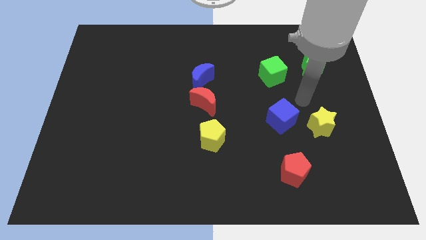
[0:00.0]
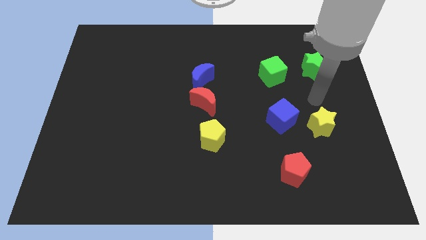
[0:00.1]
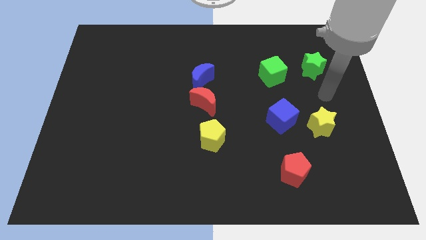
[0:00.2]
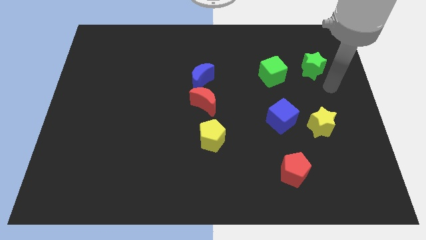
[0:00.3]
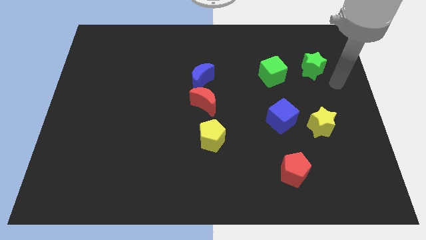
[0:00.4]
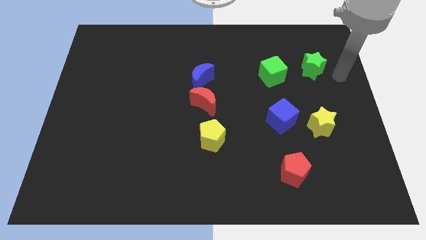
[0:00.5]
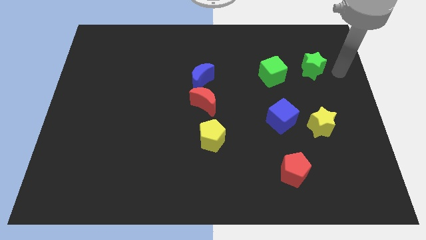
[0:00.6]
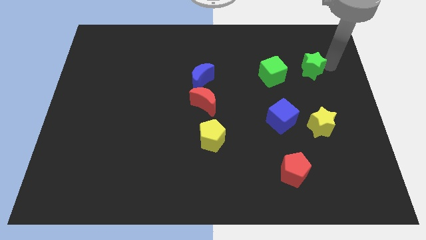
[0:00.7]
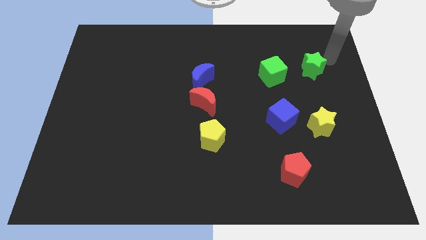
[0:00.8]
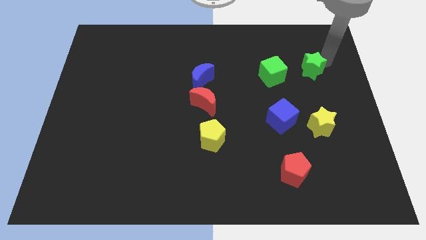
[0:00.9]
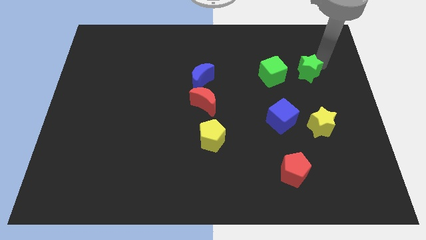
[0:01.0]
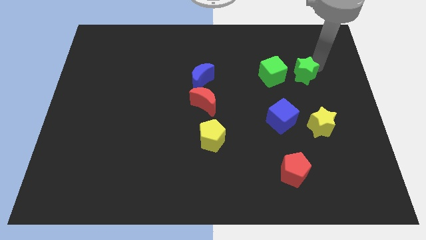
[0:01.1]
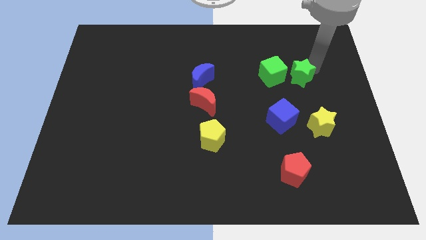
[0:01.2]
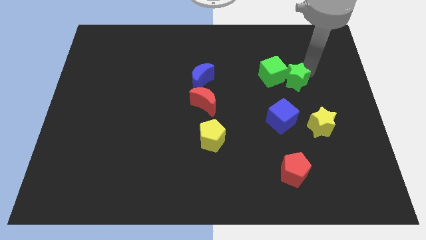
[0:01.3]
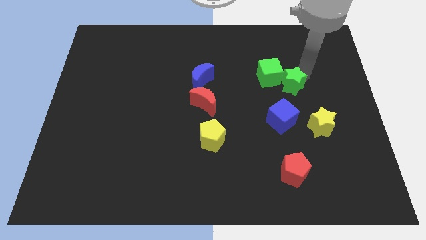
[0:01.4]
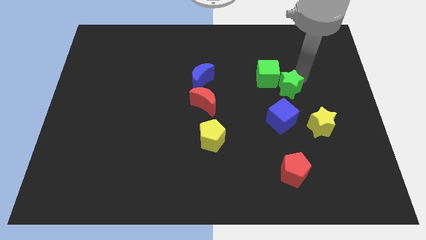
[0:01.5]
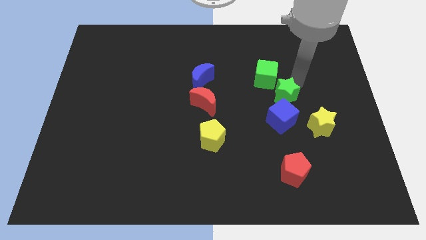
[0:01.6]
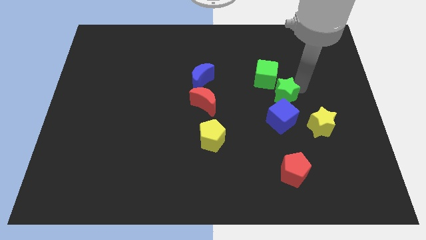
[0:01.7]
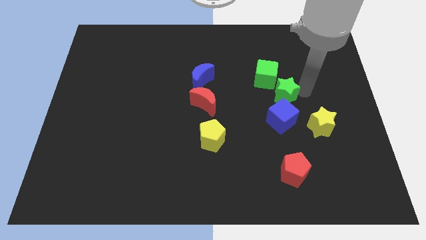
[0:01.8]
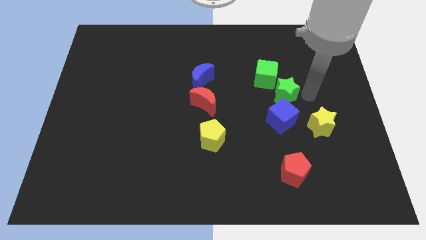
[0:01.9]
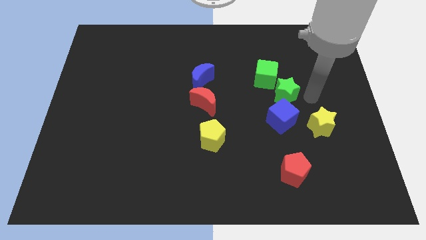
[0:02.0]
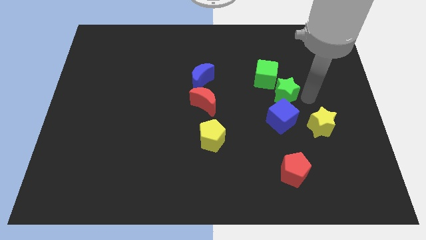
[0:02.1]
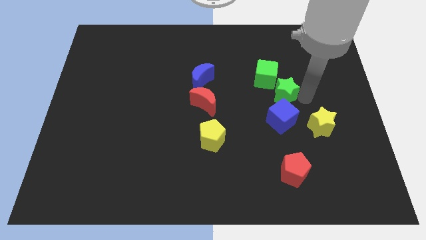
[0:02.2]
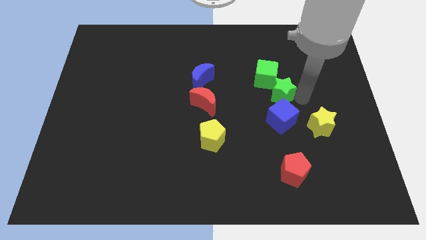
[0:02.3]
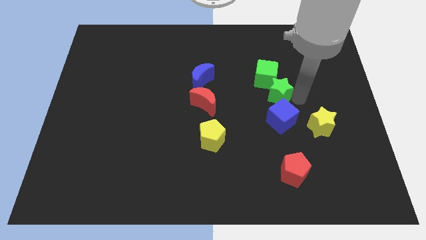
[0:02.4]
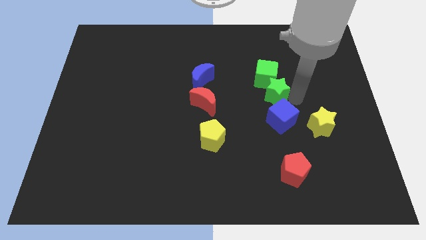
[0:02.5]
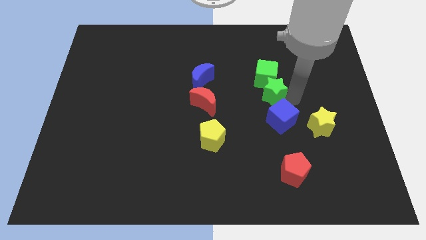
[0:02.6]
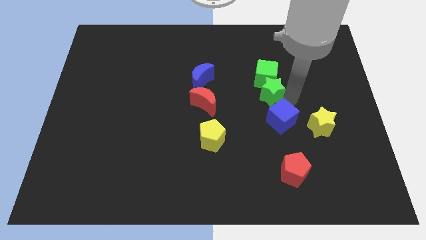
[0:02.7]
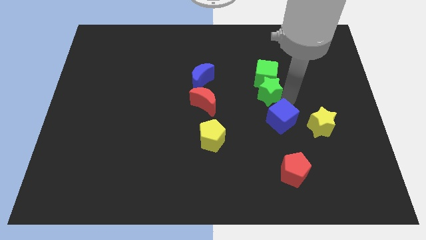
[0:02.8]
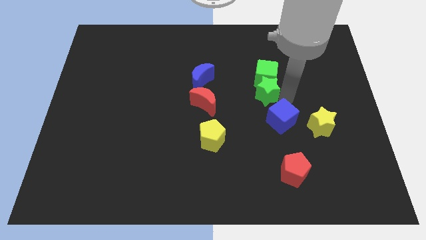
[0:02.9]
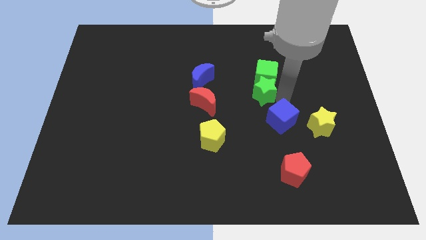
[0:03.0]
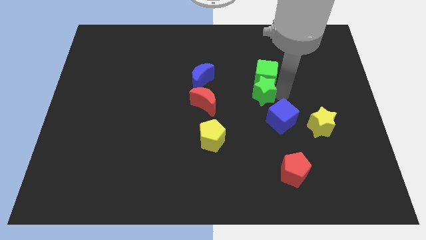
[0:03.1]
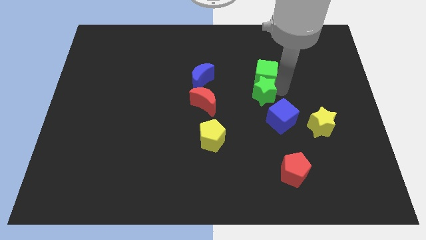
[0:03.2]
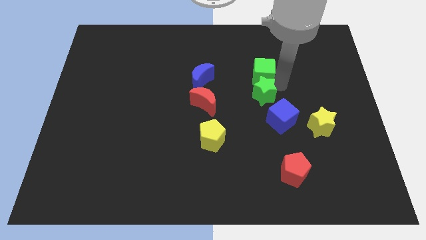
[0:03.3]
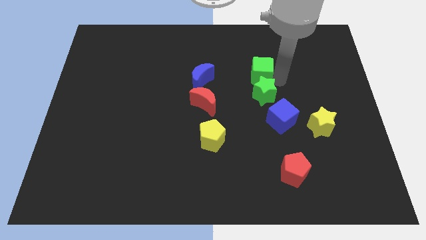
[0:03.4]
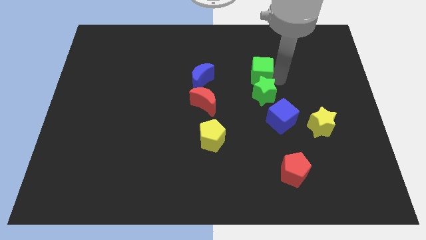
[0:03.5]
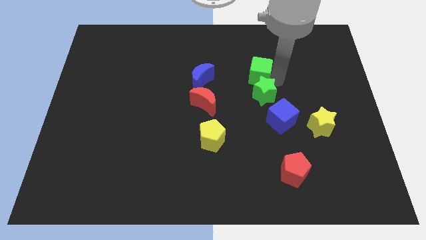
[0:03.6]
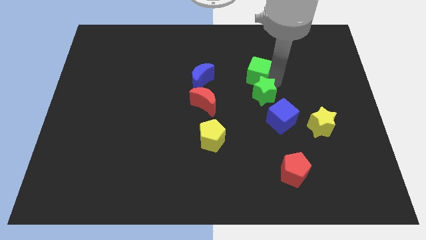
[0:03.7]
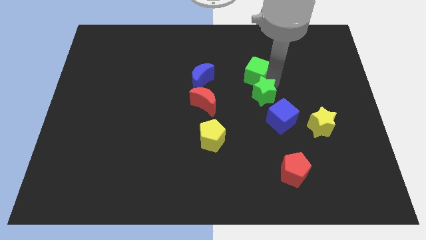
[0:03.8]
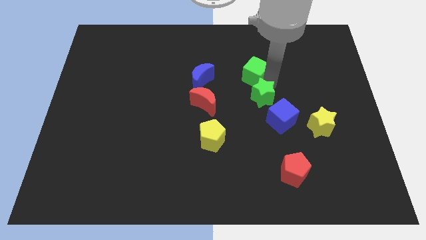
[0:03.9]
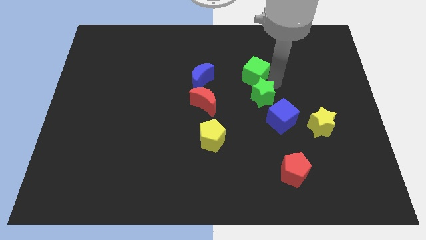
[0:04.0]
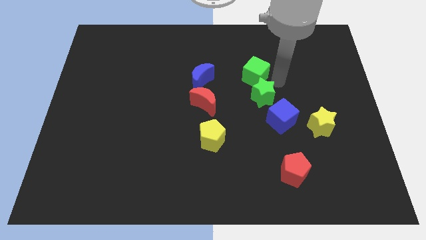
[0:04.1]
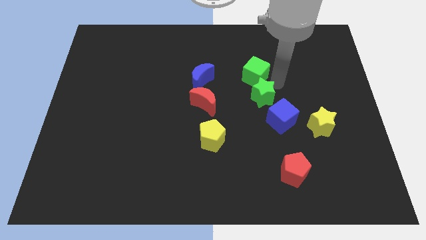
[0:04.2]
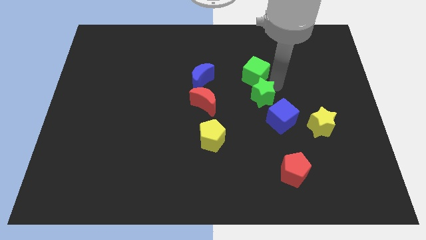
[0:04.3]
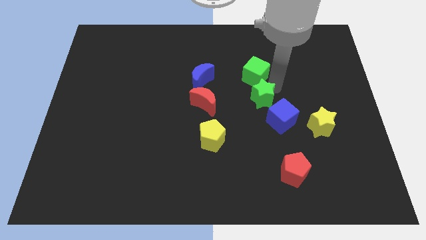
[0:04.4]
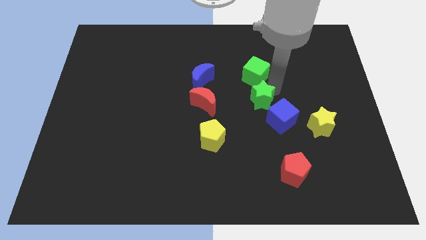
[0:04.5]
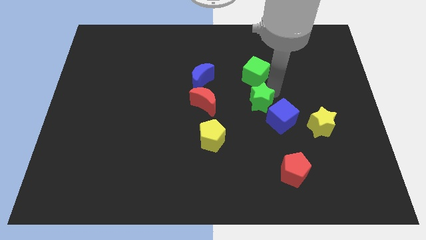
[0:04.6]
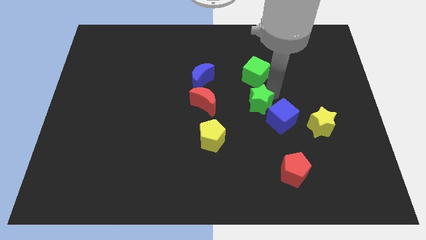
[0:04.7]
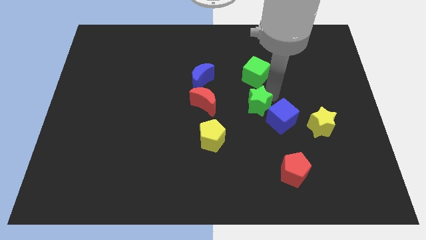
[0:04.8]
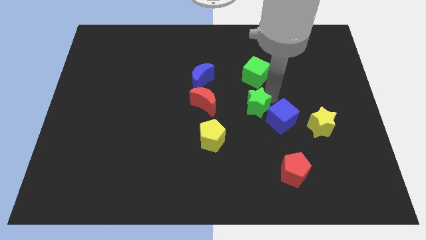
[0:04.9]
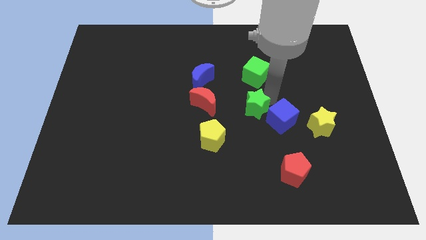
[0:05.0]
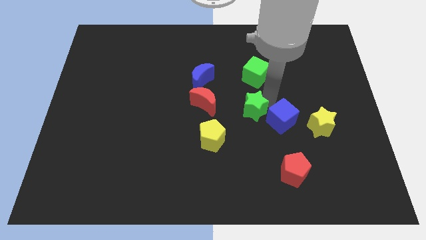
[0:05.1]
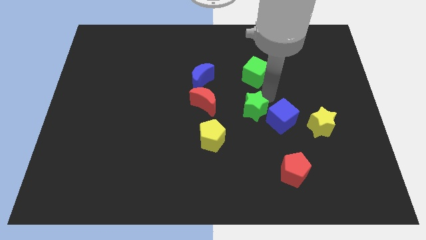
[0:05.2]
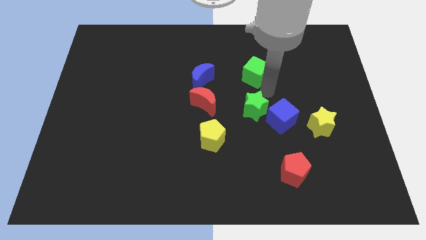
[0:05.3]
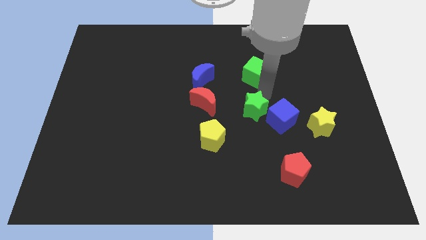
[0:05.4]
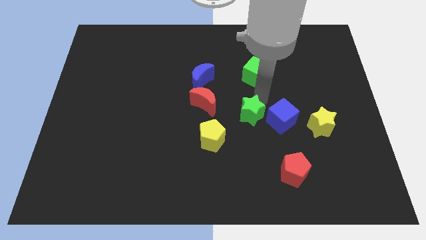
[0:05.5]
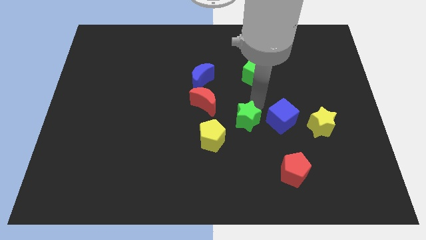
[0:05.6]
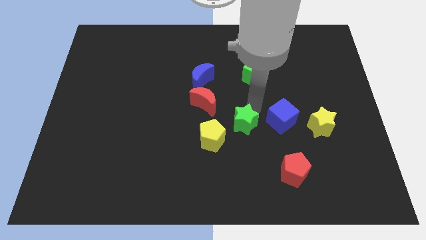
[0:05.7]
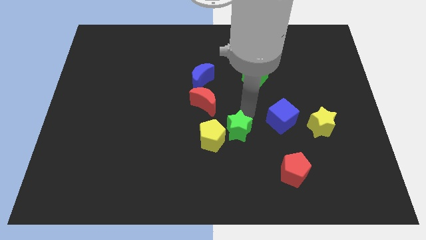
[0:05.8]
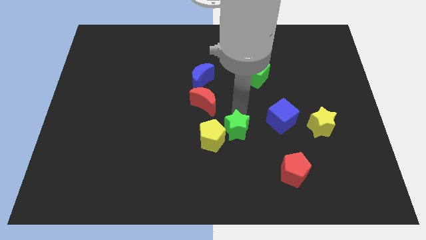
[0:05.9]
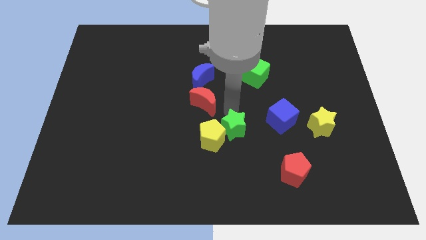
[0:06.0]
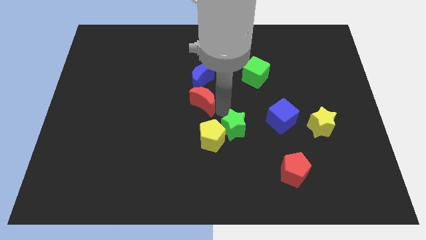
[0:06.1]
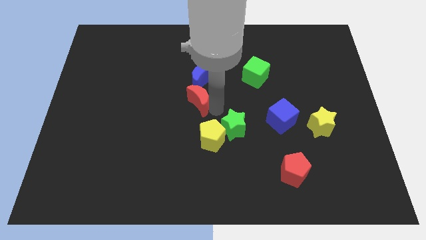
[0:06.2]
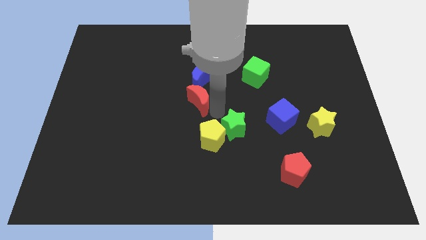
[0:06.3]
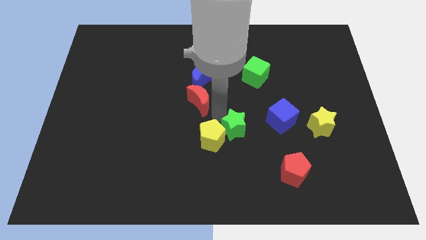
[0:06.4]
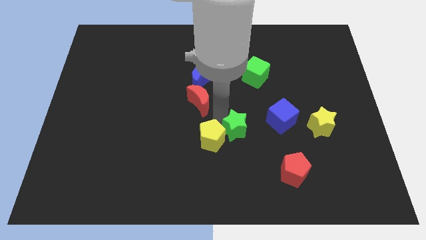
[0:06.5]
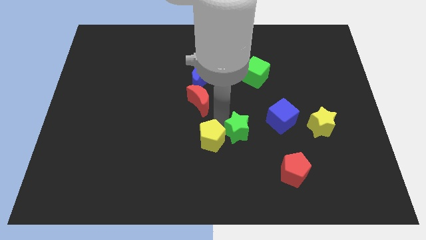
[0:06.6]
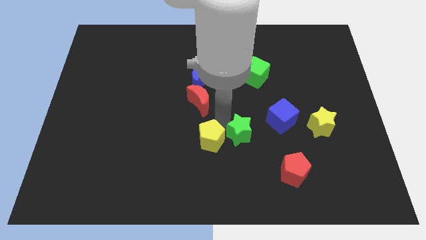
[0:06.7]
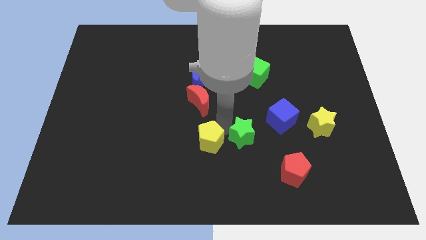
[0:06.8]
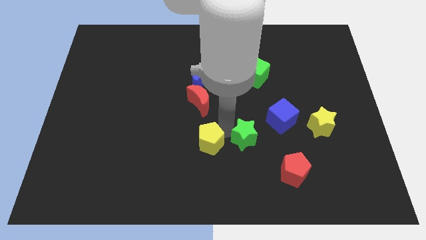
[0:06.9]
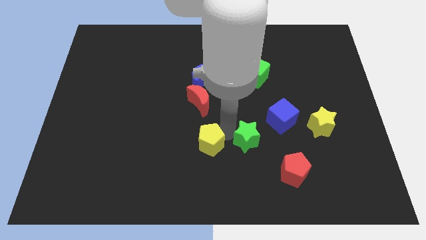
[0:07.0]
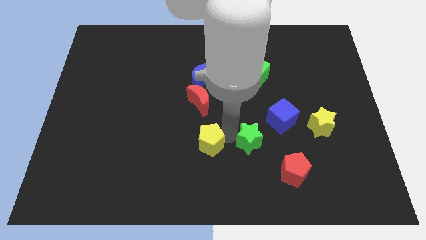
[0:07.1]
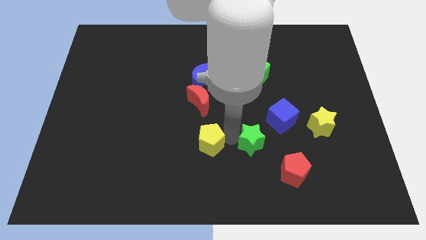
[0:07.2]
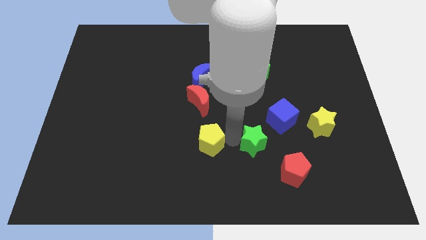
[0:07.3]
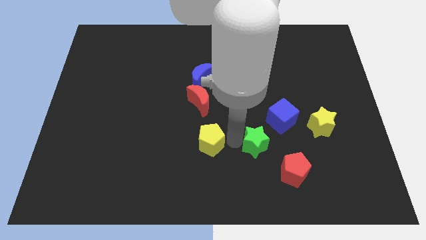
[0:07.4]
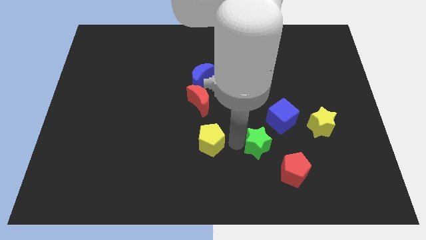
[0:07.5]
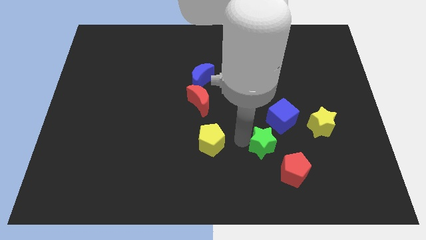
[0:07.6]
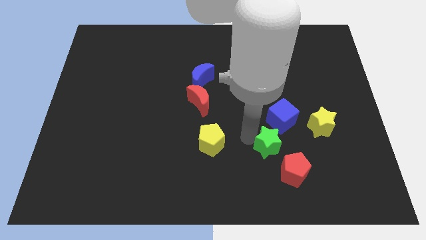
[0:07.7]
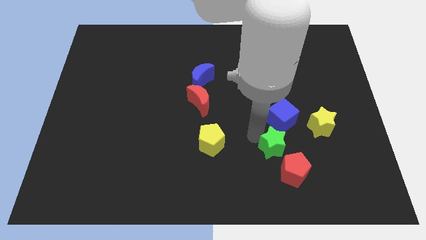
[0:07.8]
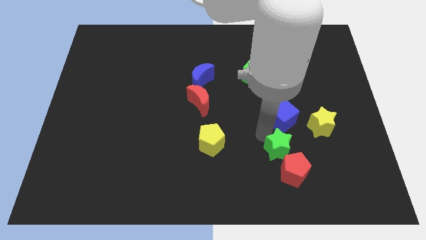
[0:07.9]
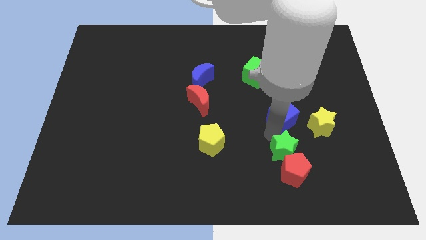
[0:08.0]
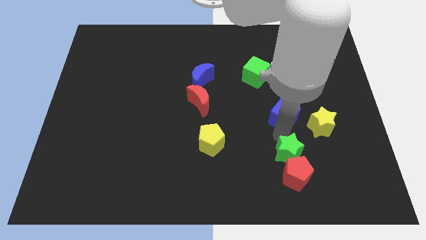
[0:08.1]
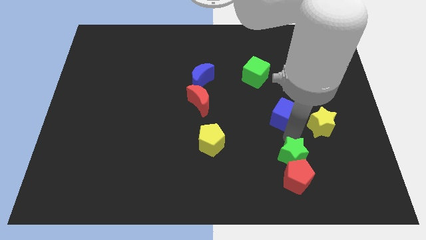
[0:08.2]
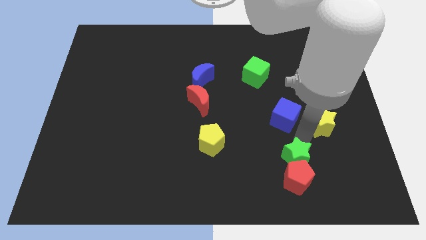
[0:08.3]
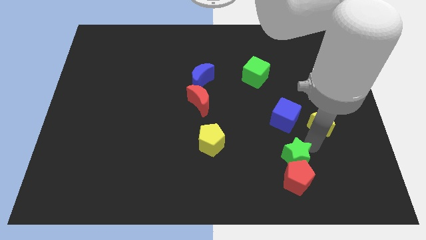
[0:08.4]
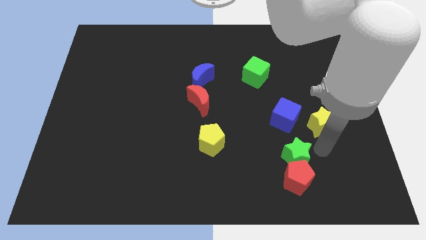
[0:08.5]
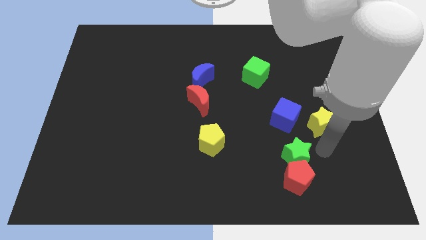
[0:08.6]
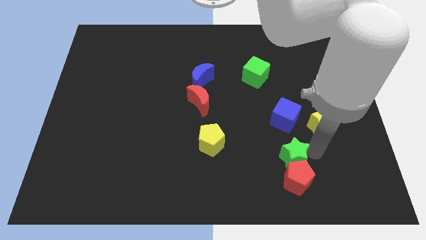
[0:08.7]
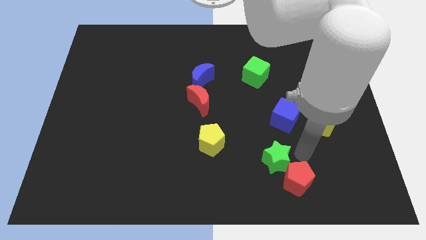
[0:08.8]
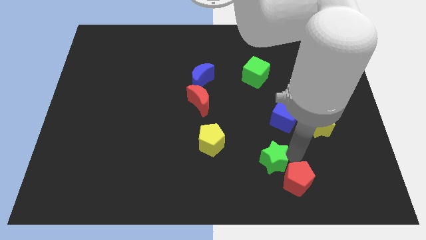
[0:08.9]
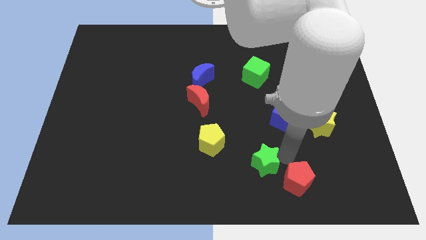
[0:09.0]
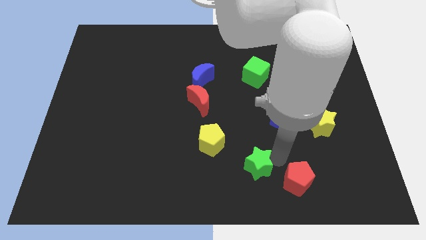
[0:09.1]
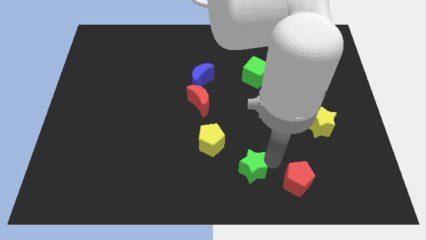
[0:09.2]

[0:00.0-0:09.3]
put the green star to the bottom
